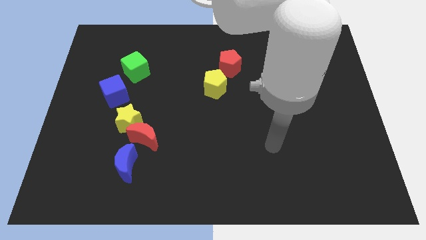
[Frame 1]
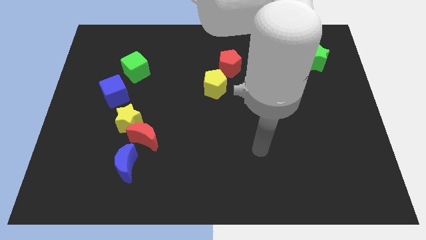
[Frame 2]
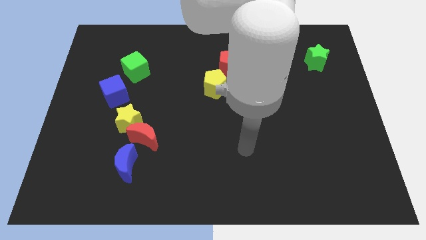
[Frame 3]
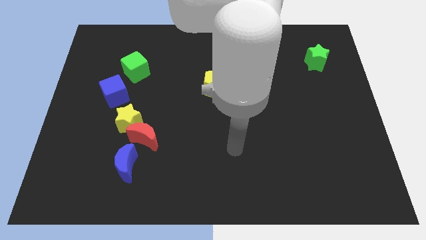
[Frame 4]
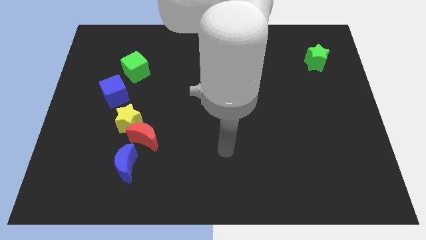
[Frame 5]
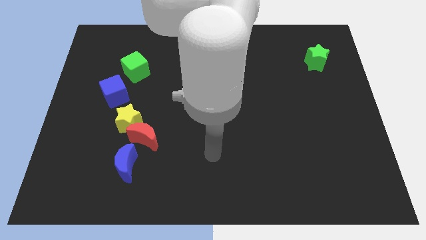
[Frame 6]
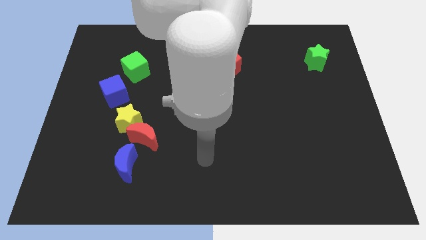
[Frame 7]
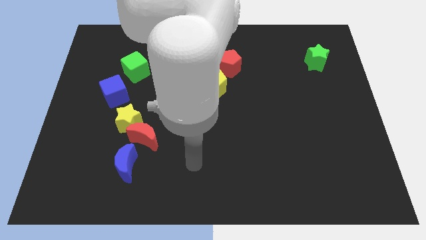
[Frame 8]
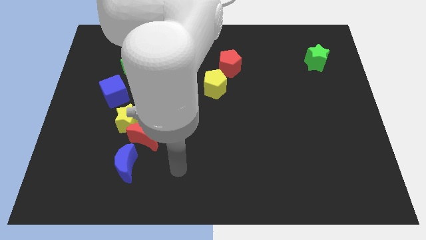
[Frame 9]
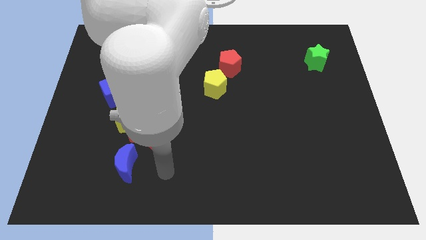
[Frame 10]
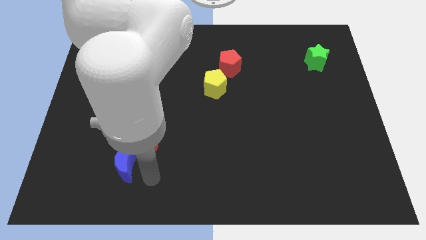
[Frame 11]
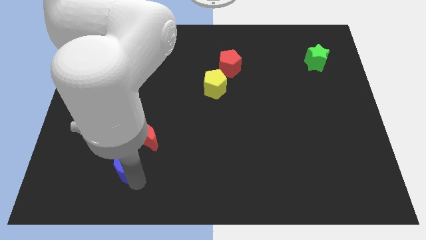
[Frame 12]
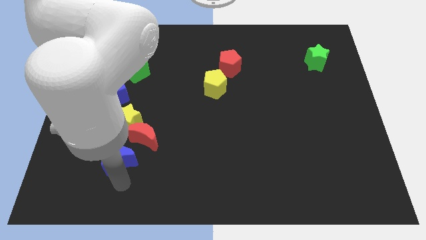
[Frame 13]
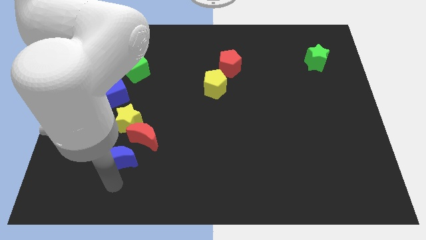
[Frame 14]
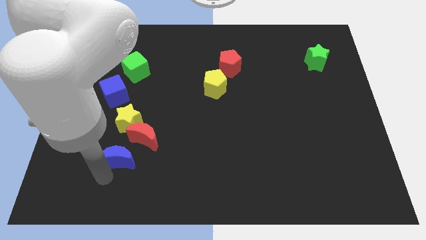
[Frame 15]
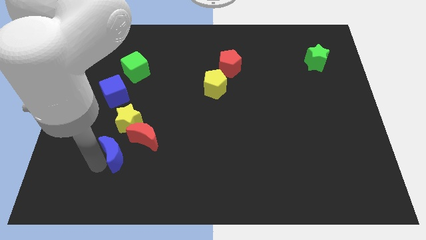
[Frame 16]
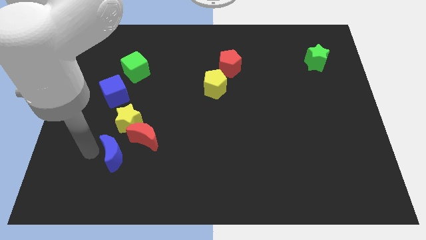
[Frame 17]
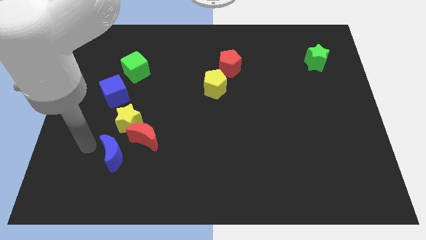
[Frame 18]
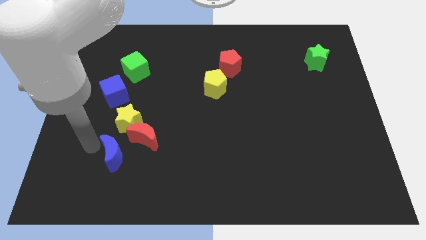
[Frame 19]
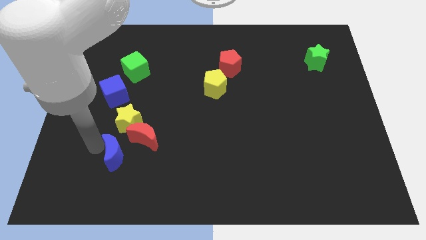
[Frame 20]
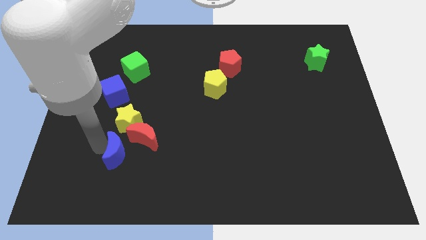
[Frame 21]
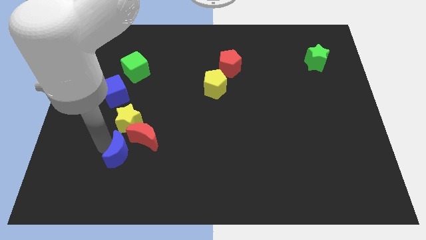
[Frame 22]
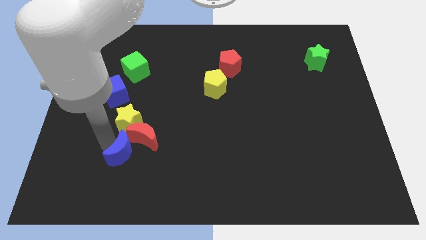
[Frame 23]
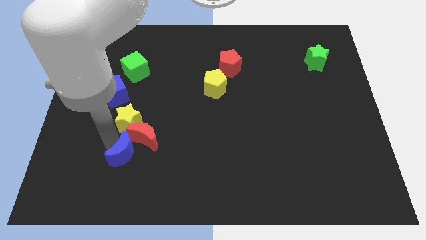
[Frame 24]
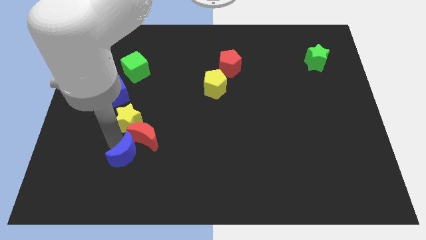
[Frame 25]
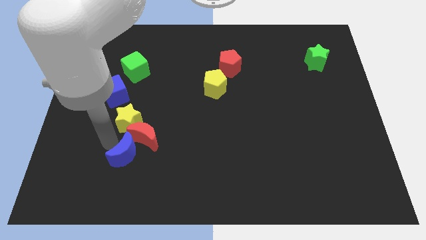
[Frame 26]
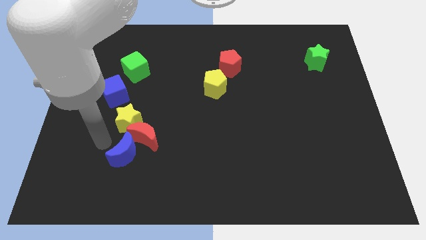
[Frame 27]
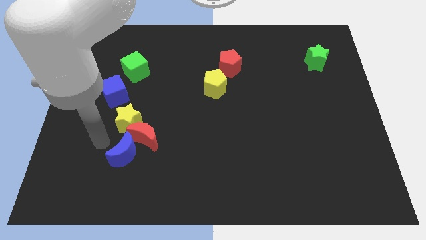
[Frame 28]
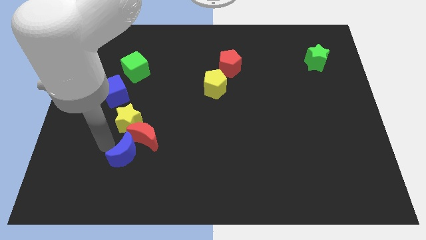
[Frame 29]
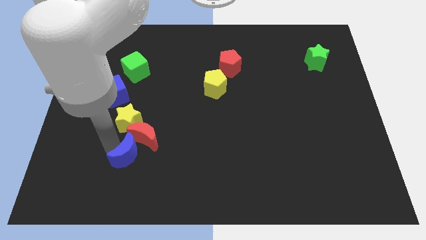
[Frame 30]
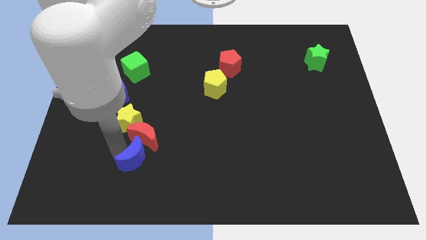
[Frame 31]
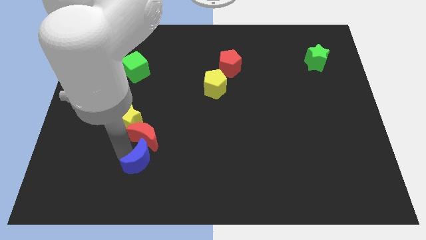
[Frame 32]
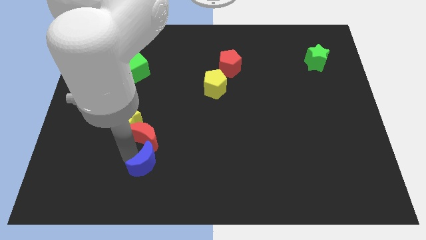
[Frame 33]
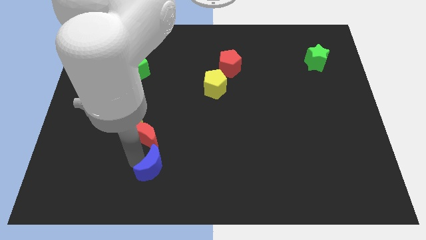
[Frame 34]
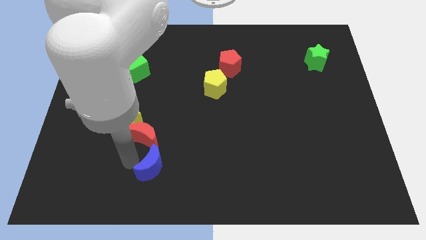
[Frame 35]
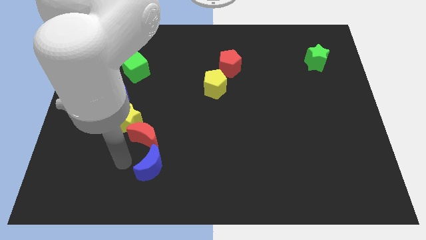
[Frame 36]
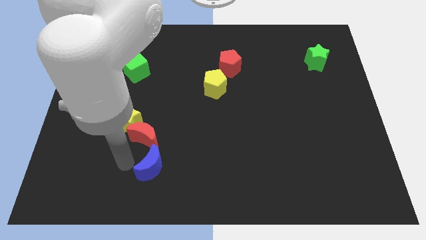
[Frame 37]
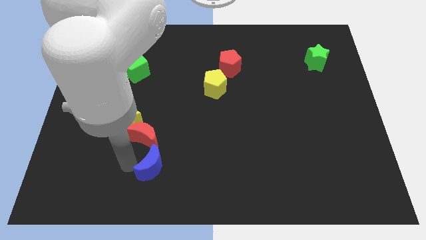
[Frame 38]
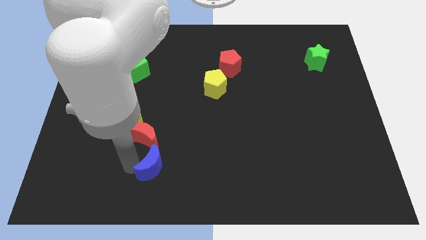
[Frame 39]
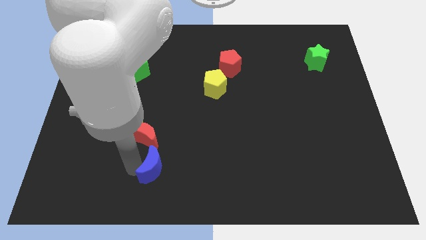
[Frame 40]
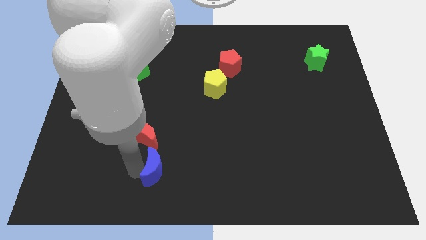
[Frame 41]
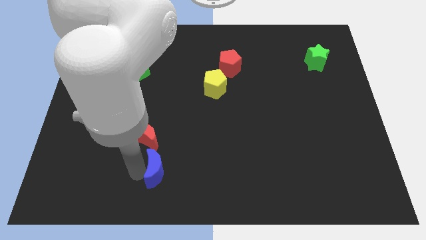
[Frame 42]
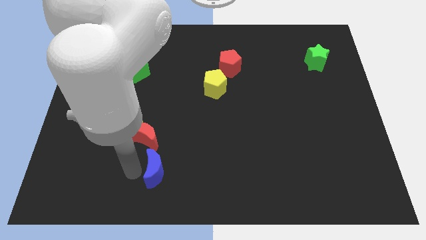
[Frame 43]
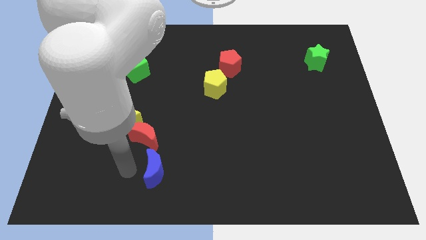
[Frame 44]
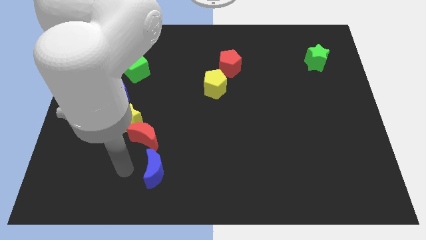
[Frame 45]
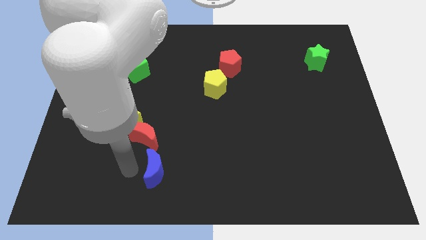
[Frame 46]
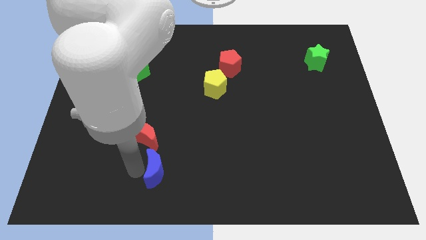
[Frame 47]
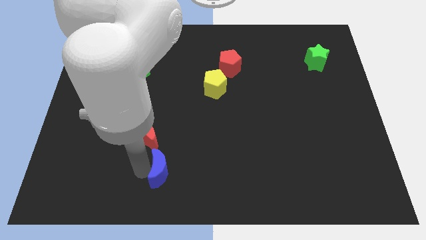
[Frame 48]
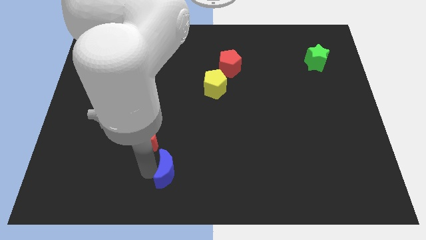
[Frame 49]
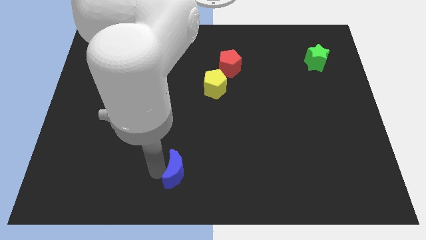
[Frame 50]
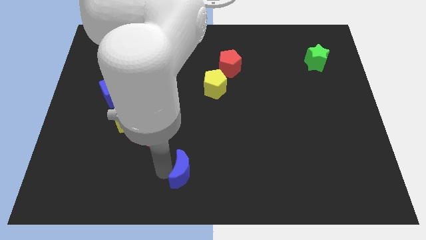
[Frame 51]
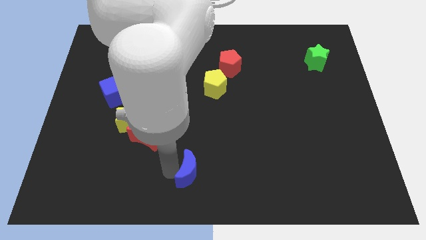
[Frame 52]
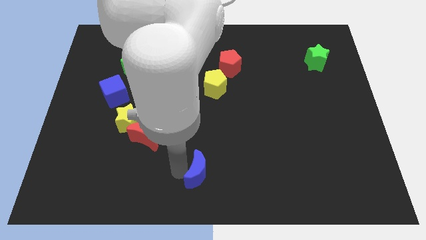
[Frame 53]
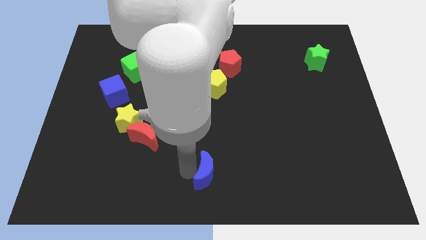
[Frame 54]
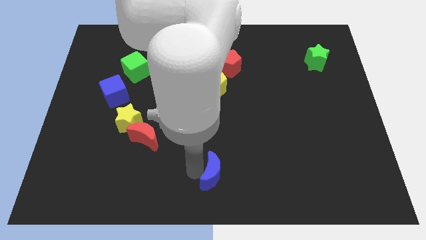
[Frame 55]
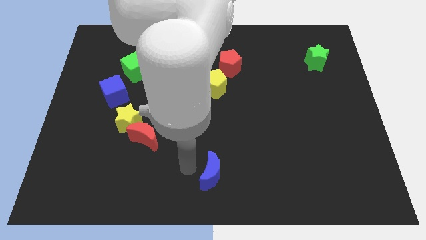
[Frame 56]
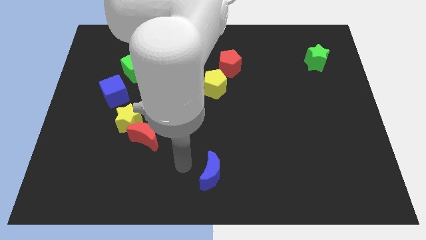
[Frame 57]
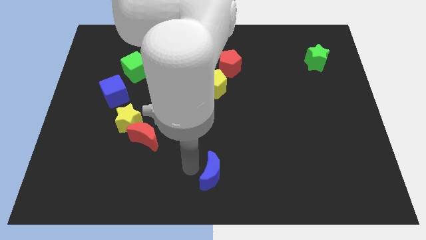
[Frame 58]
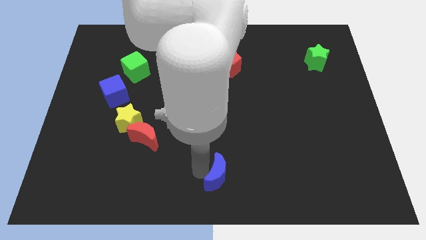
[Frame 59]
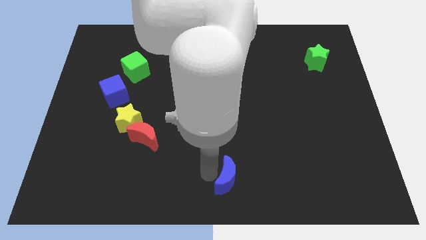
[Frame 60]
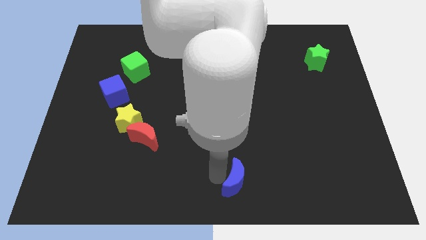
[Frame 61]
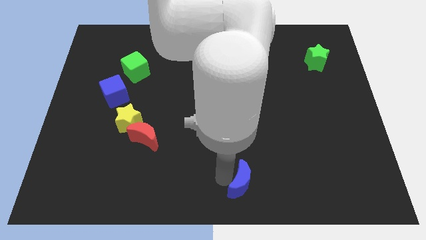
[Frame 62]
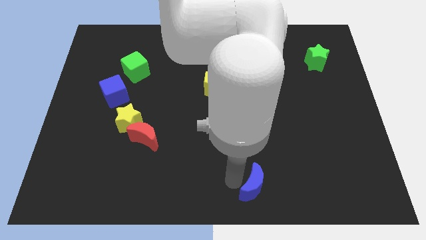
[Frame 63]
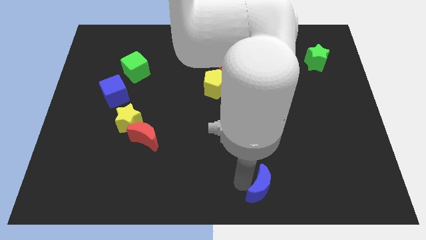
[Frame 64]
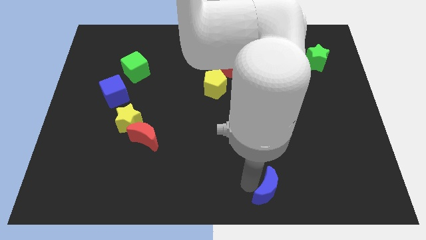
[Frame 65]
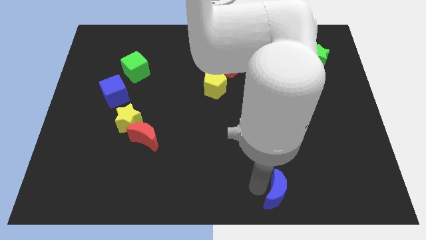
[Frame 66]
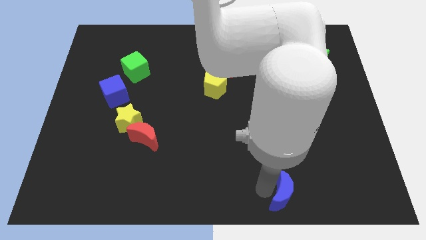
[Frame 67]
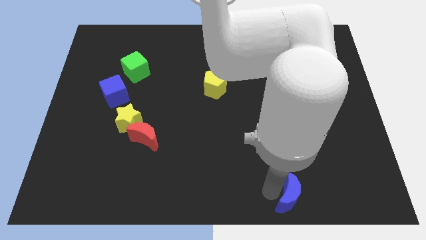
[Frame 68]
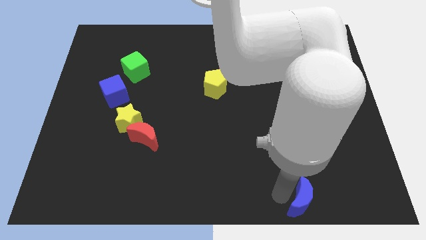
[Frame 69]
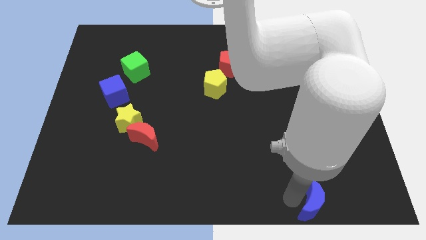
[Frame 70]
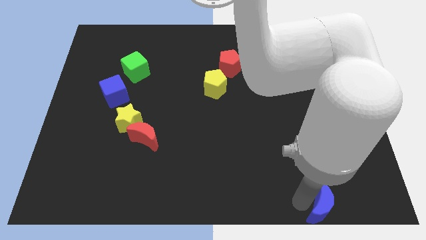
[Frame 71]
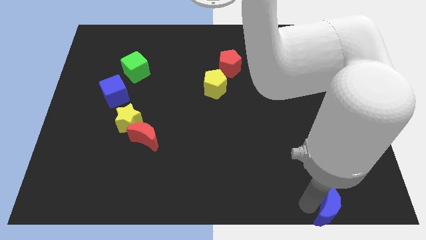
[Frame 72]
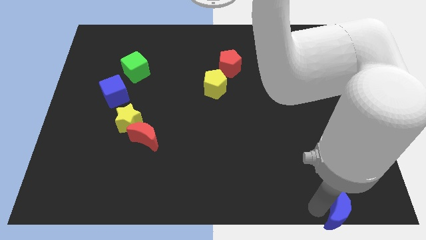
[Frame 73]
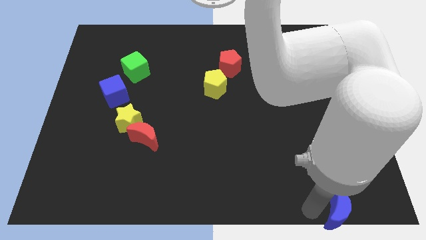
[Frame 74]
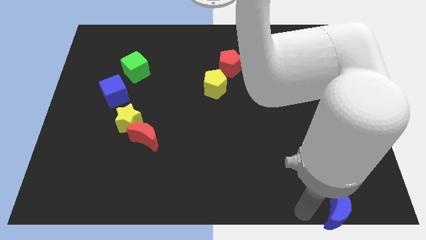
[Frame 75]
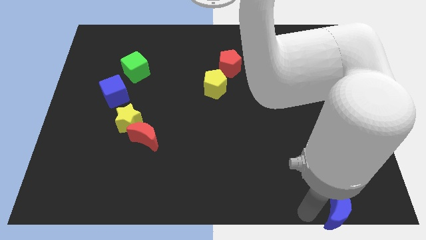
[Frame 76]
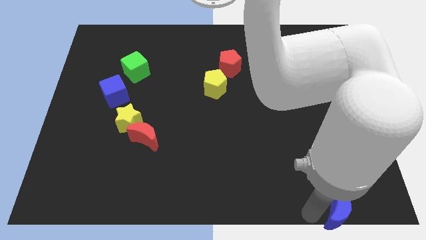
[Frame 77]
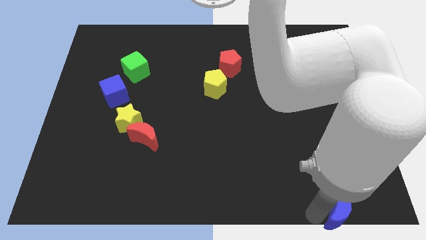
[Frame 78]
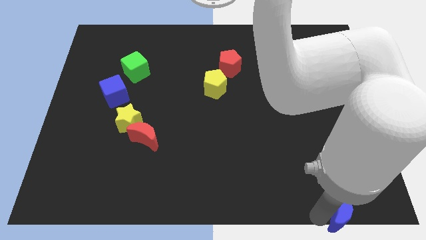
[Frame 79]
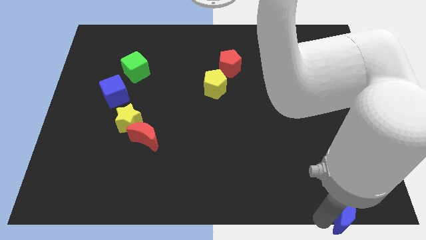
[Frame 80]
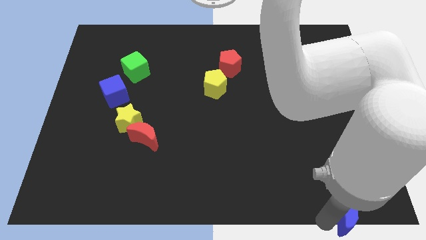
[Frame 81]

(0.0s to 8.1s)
put the blue moon to the bottom right corner
